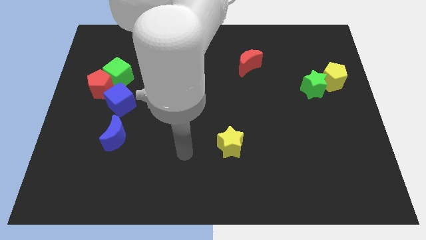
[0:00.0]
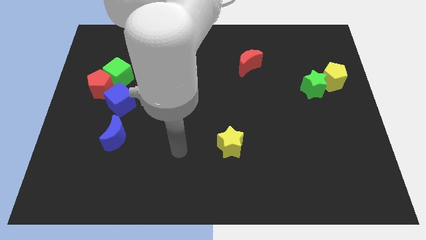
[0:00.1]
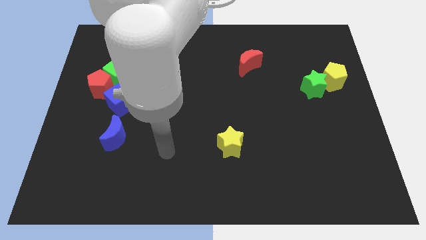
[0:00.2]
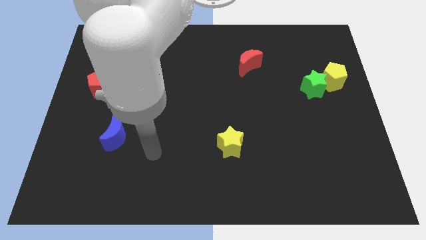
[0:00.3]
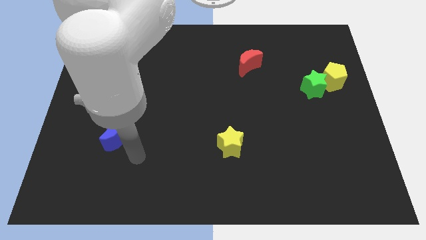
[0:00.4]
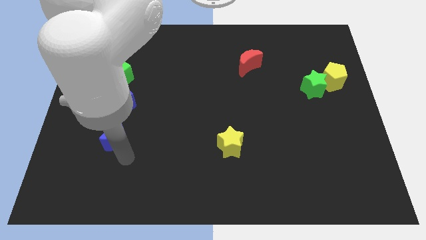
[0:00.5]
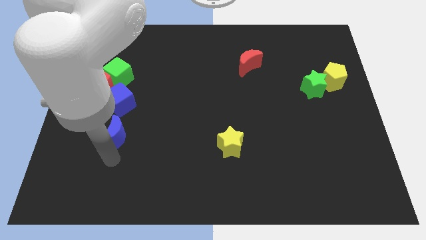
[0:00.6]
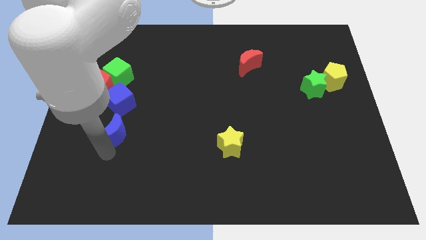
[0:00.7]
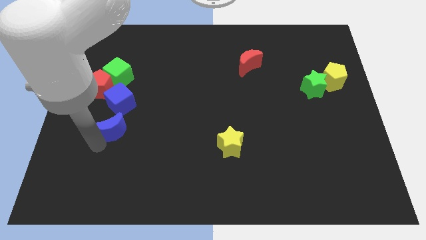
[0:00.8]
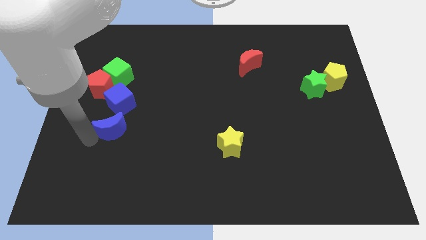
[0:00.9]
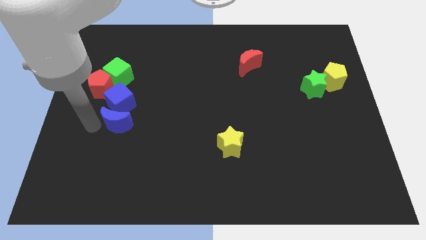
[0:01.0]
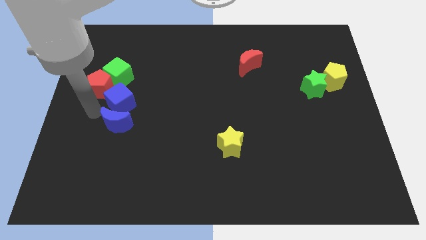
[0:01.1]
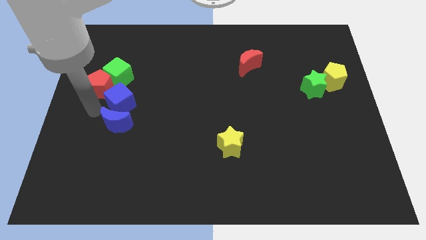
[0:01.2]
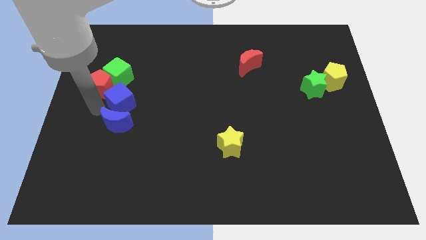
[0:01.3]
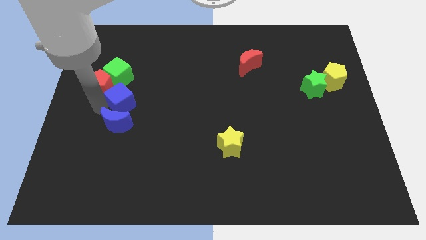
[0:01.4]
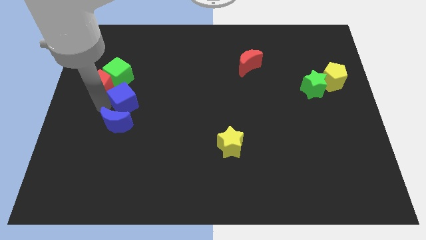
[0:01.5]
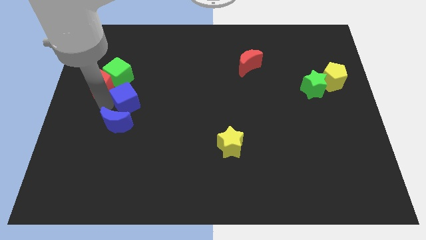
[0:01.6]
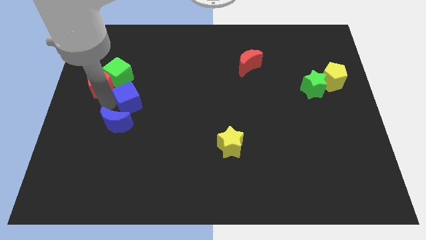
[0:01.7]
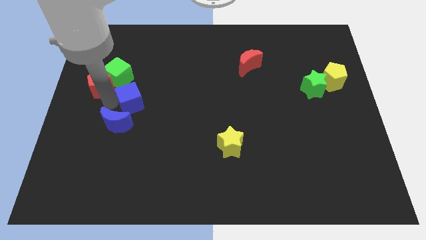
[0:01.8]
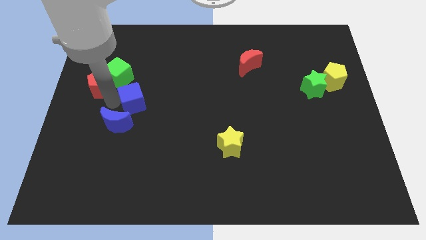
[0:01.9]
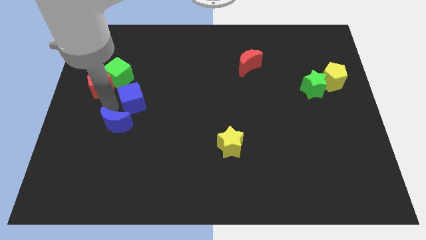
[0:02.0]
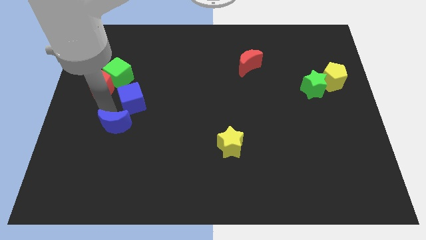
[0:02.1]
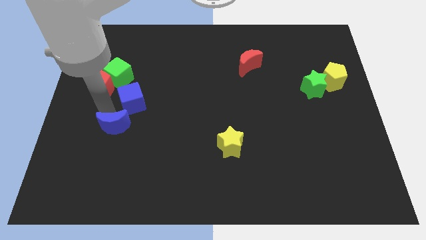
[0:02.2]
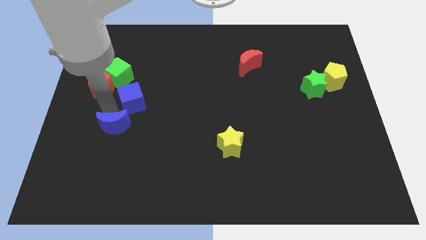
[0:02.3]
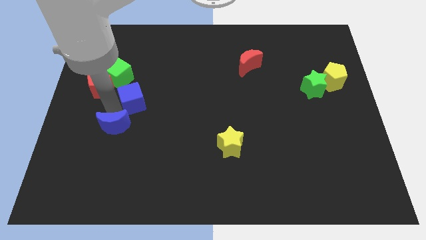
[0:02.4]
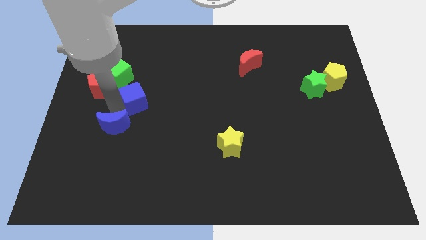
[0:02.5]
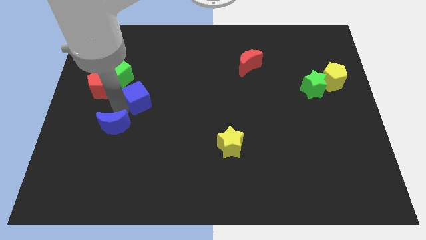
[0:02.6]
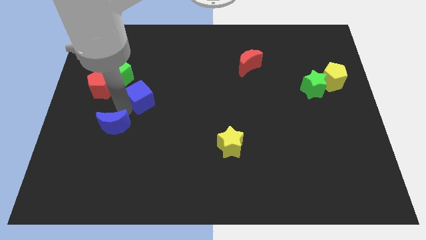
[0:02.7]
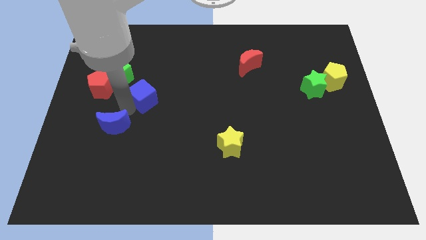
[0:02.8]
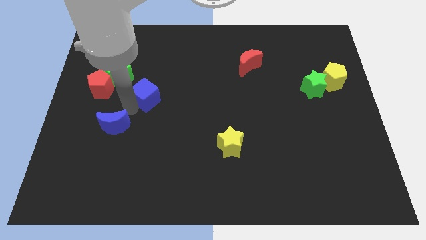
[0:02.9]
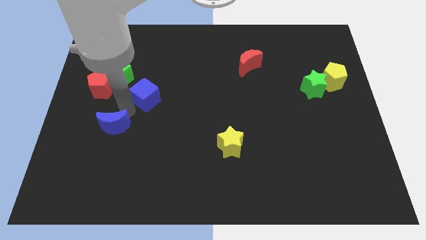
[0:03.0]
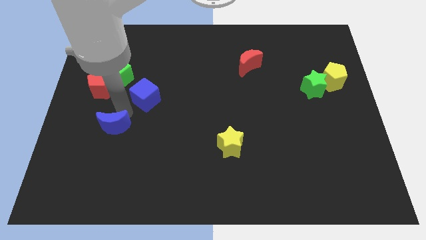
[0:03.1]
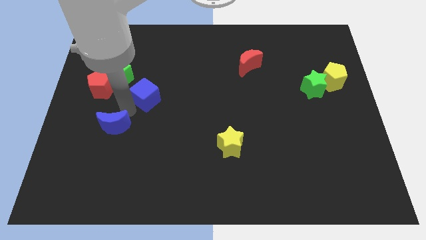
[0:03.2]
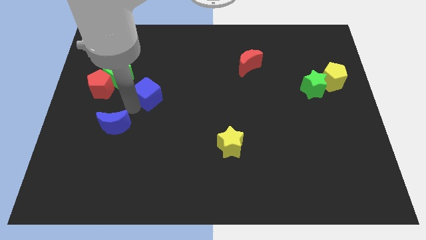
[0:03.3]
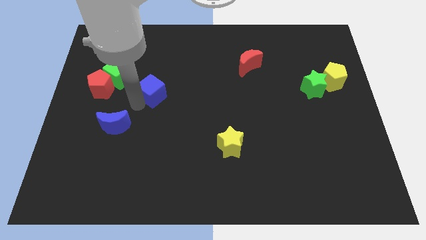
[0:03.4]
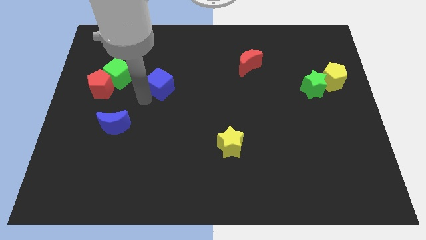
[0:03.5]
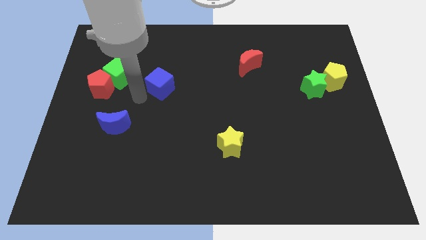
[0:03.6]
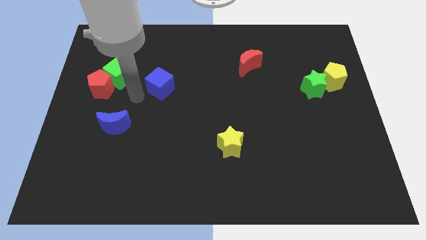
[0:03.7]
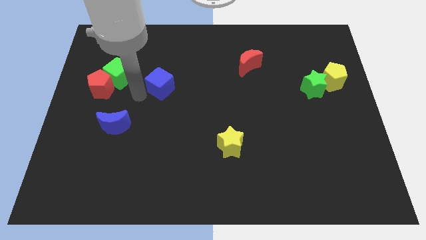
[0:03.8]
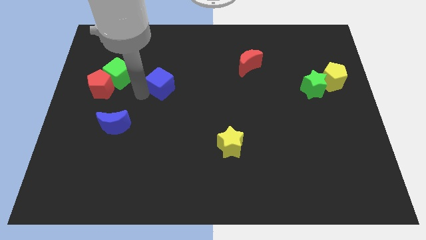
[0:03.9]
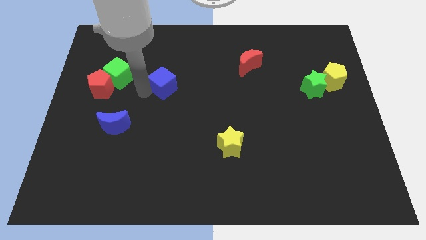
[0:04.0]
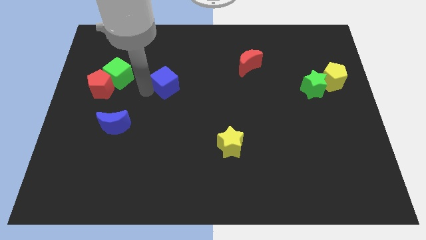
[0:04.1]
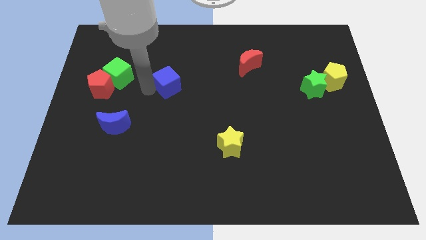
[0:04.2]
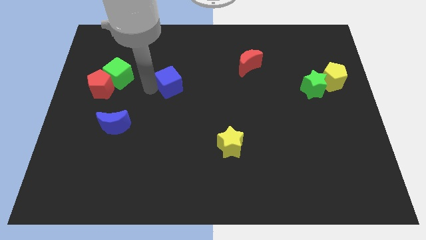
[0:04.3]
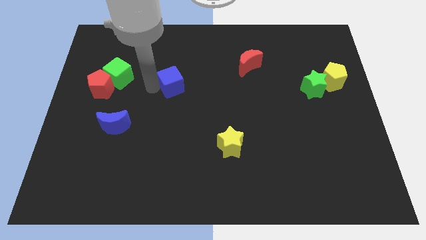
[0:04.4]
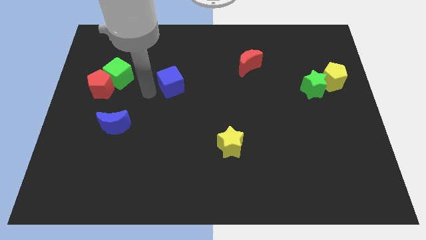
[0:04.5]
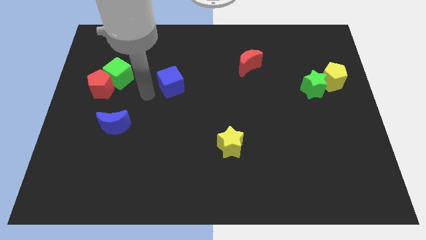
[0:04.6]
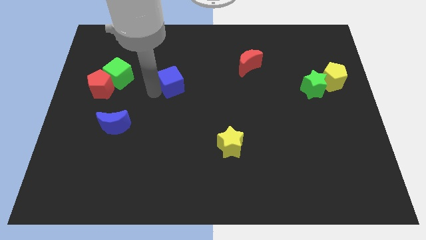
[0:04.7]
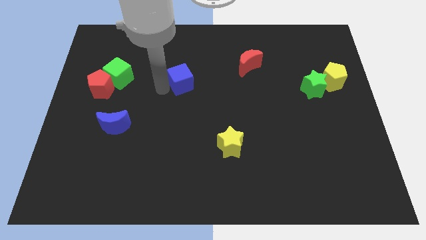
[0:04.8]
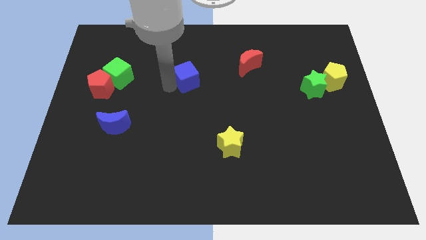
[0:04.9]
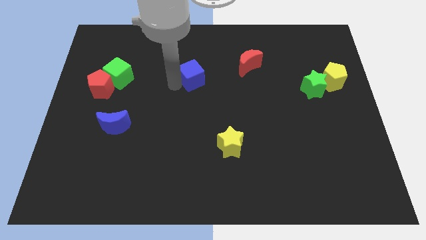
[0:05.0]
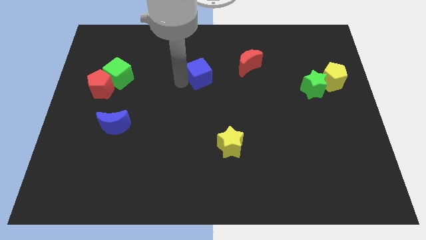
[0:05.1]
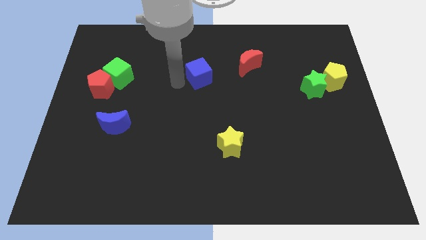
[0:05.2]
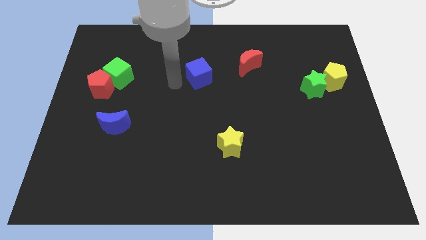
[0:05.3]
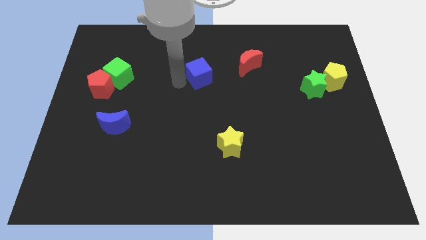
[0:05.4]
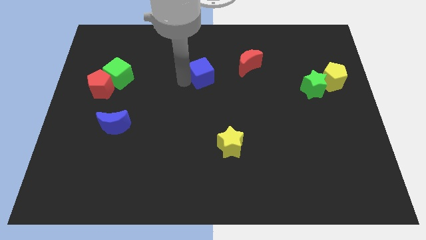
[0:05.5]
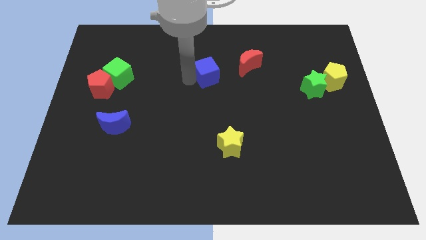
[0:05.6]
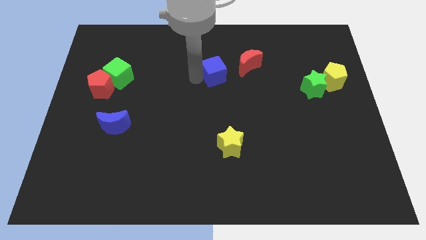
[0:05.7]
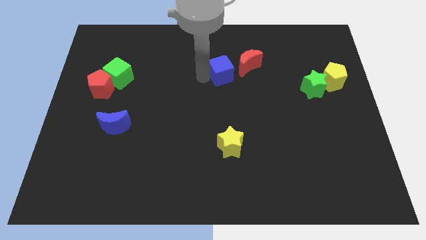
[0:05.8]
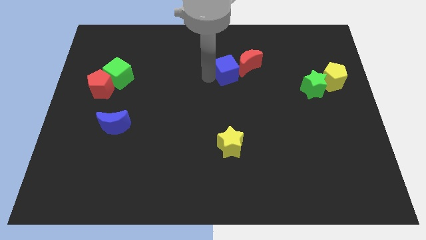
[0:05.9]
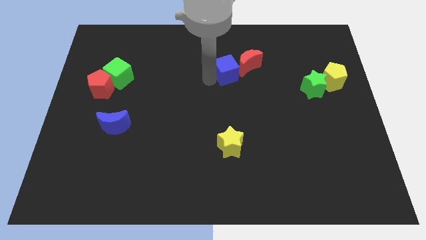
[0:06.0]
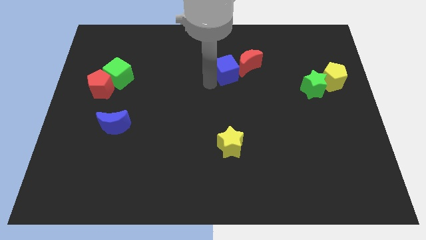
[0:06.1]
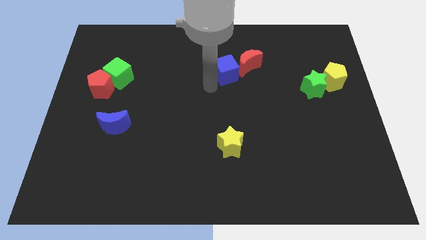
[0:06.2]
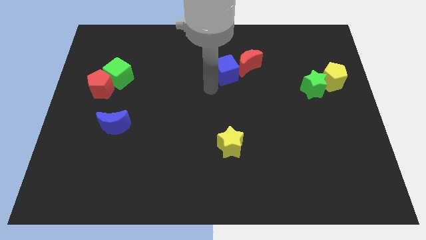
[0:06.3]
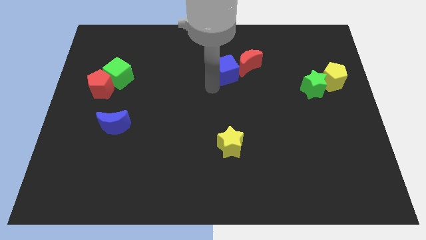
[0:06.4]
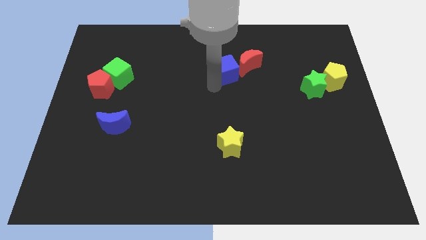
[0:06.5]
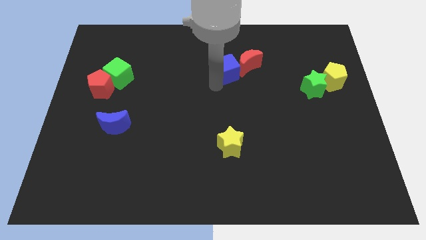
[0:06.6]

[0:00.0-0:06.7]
slide the blue cube to the red moon
